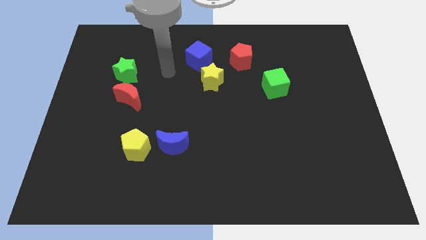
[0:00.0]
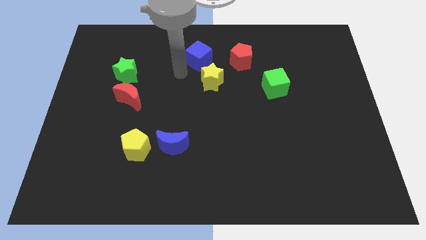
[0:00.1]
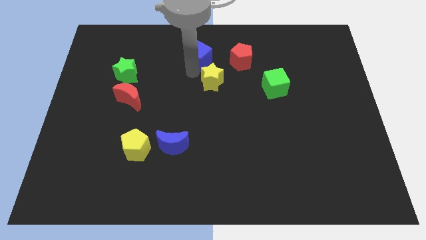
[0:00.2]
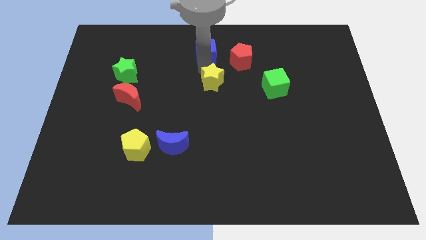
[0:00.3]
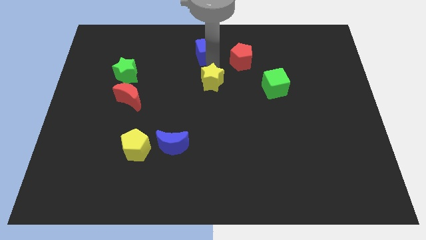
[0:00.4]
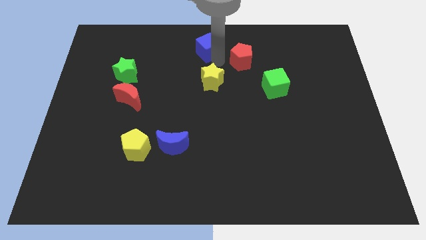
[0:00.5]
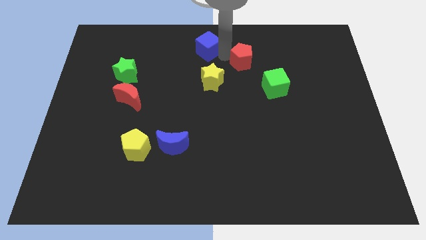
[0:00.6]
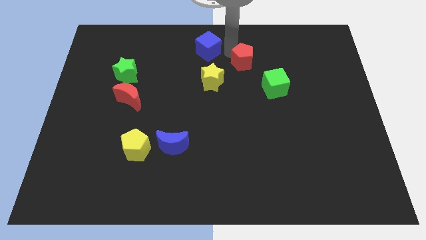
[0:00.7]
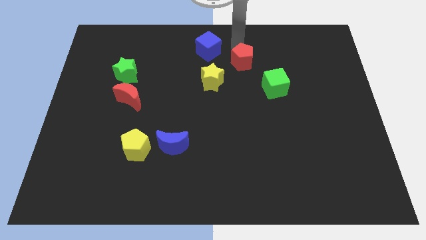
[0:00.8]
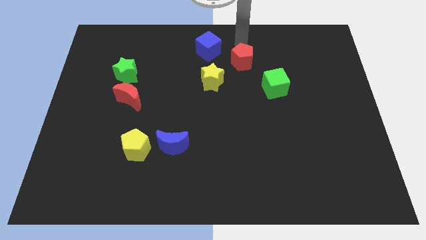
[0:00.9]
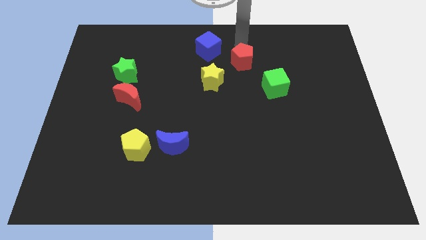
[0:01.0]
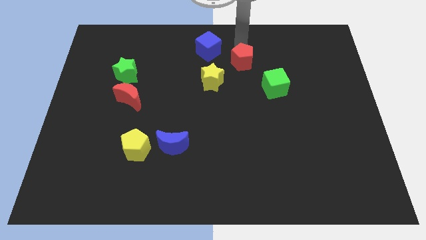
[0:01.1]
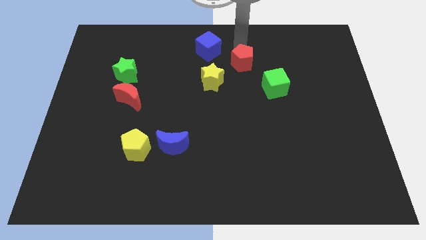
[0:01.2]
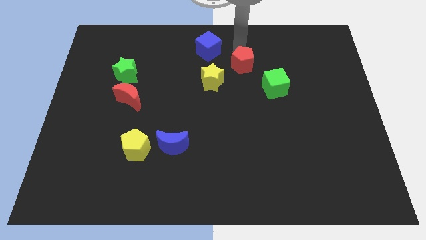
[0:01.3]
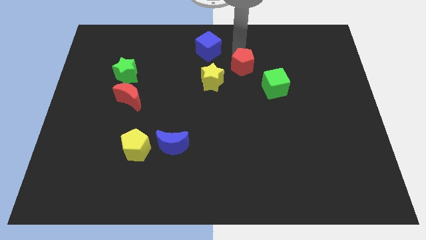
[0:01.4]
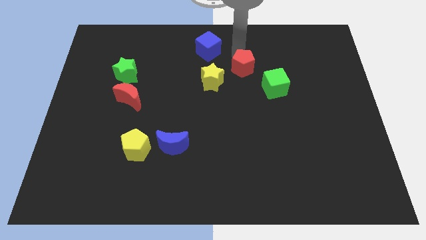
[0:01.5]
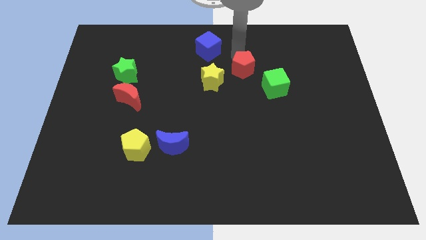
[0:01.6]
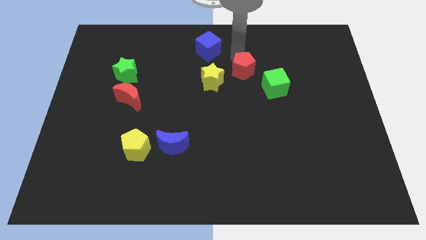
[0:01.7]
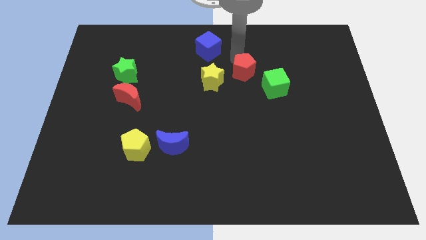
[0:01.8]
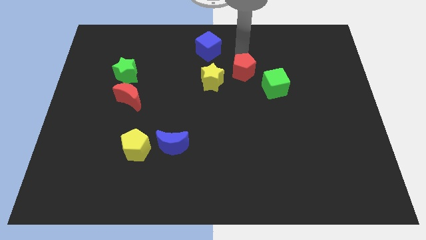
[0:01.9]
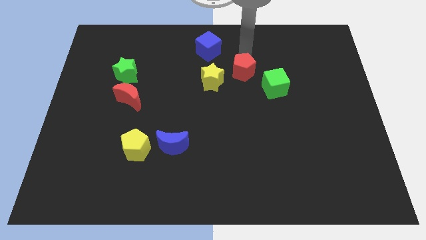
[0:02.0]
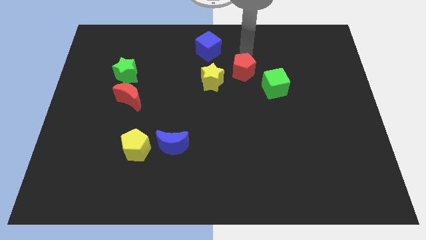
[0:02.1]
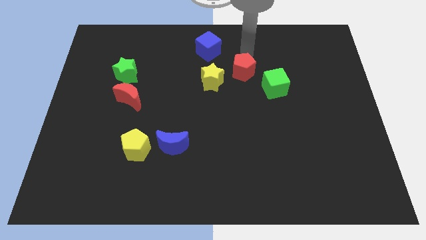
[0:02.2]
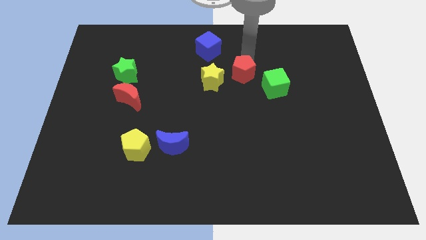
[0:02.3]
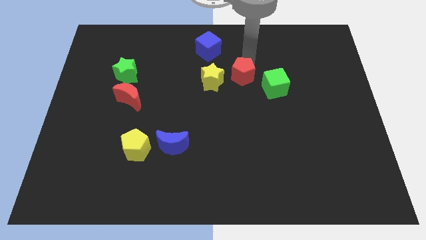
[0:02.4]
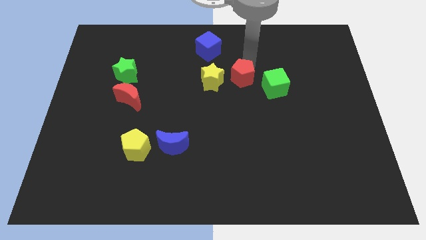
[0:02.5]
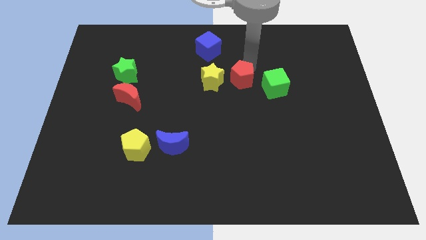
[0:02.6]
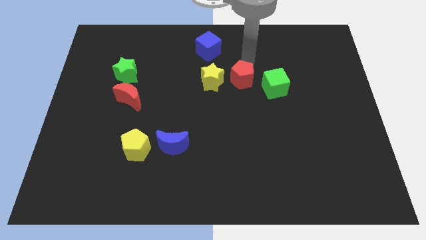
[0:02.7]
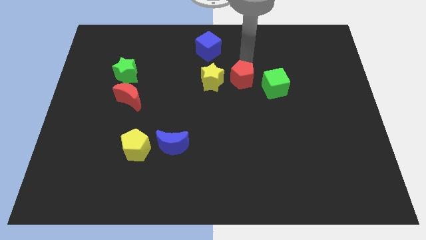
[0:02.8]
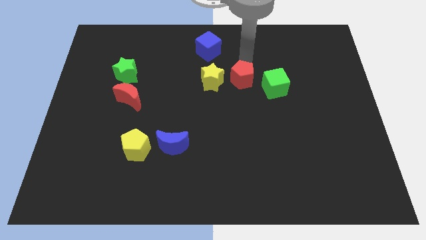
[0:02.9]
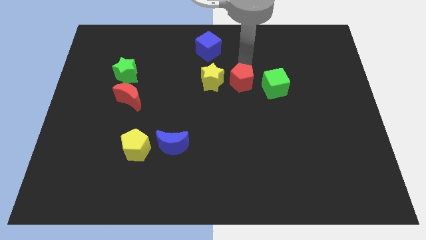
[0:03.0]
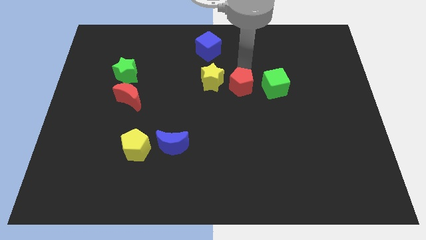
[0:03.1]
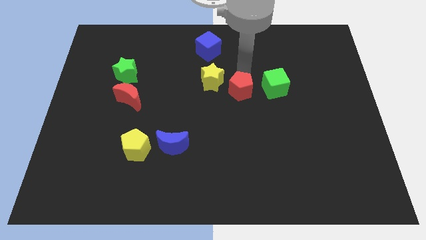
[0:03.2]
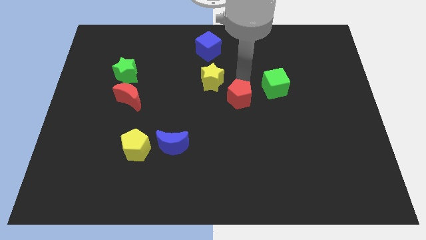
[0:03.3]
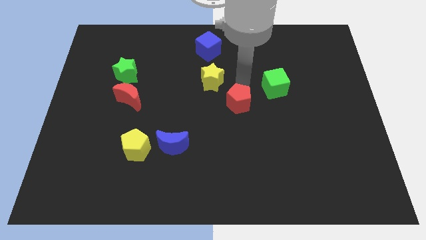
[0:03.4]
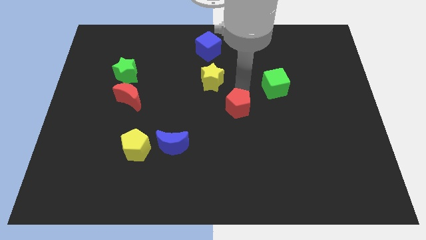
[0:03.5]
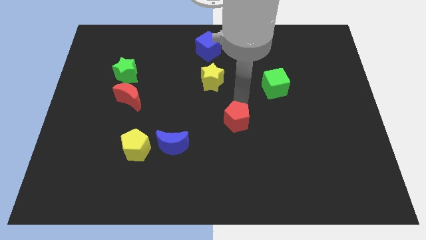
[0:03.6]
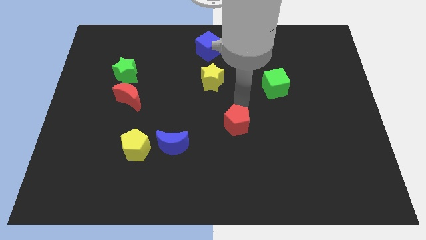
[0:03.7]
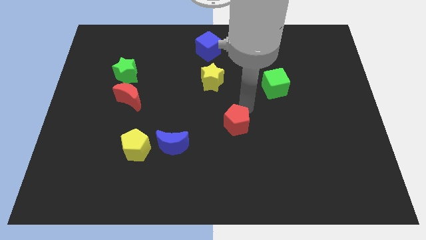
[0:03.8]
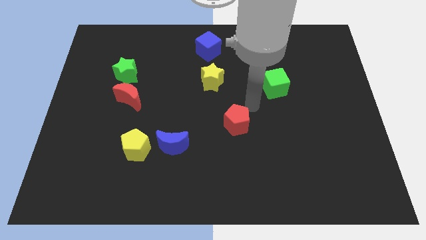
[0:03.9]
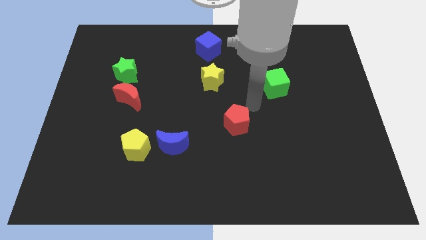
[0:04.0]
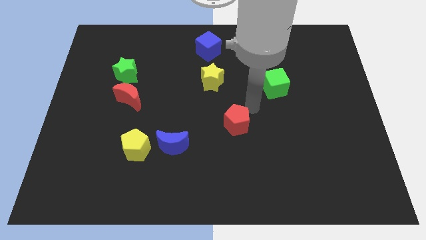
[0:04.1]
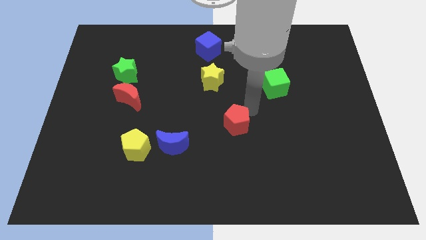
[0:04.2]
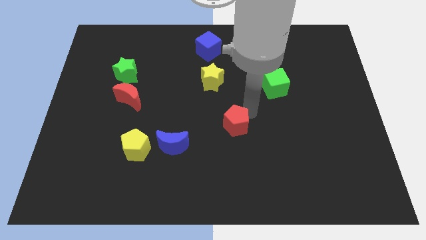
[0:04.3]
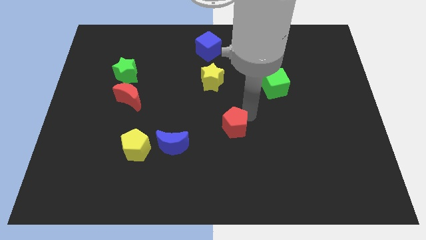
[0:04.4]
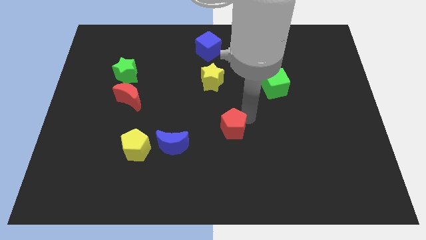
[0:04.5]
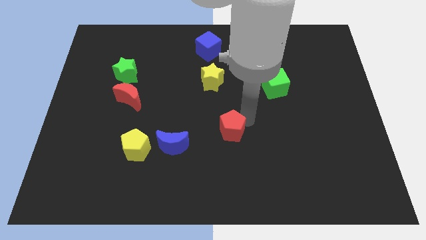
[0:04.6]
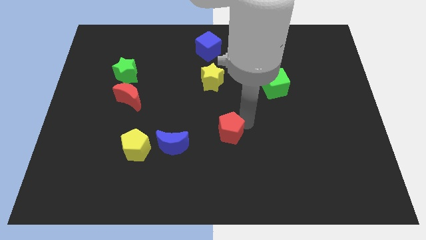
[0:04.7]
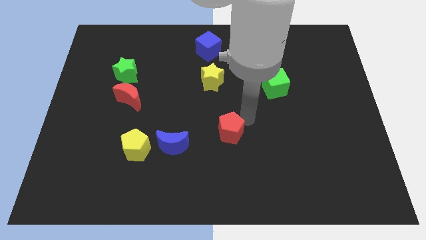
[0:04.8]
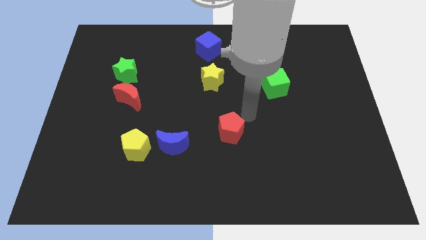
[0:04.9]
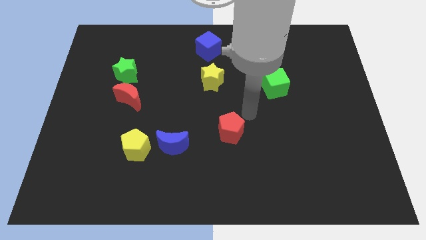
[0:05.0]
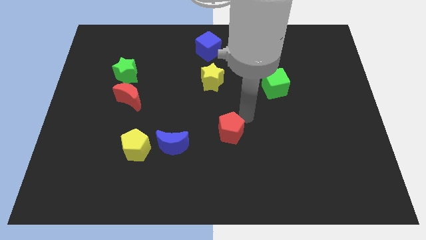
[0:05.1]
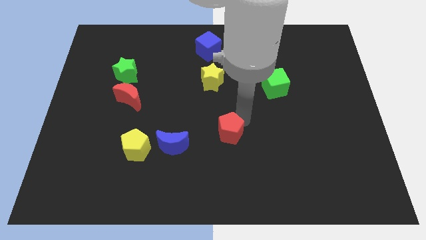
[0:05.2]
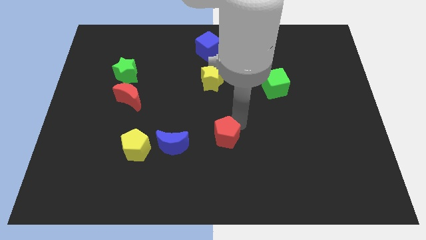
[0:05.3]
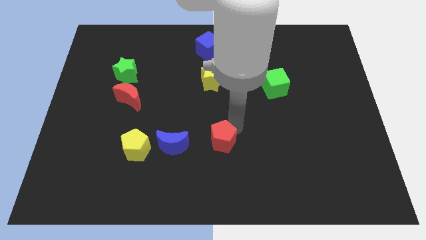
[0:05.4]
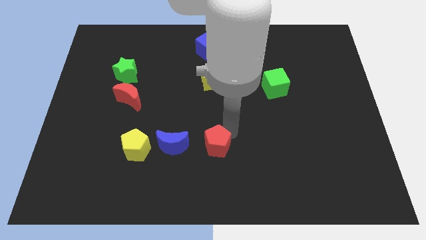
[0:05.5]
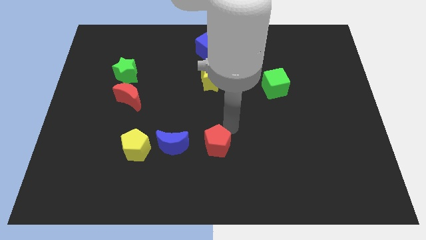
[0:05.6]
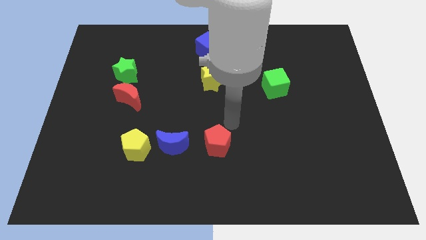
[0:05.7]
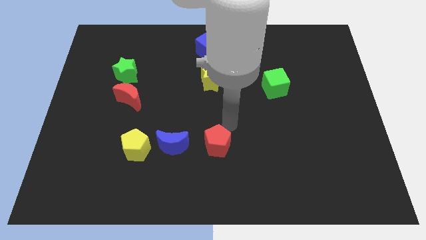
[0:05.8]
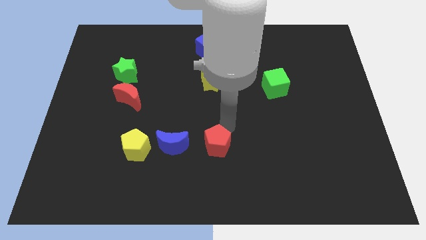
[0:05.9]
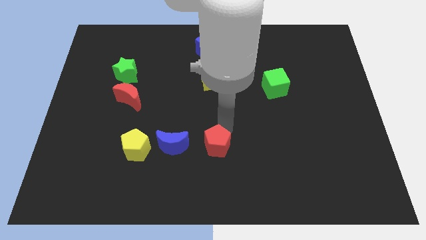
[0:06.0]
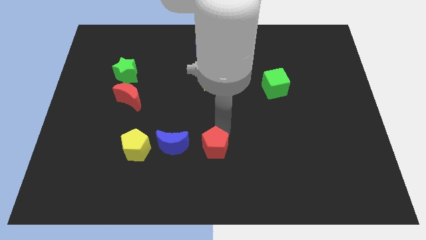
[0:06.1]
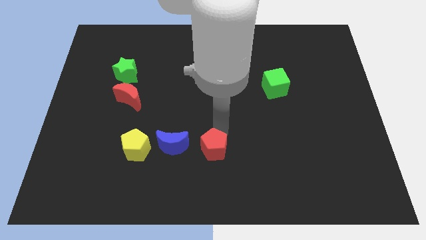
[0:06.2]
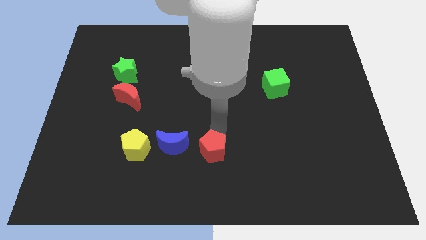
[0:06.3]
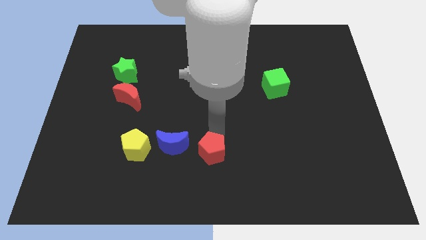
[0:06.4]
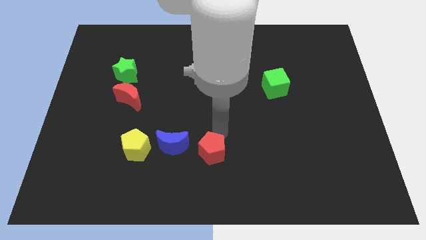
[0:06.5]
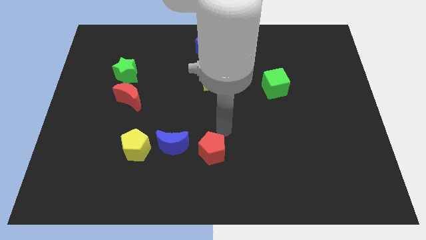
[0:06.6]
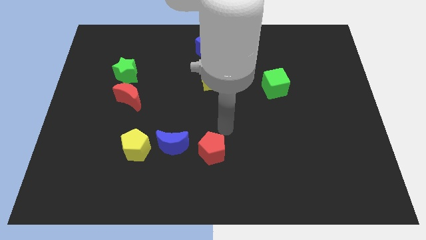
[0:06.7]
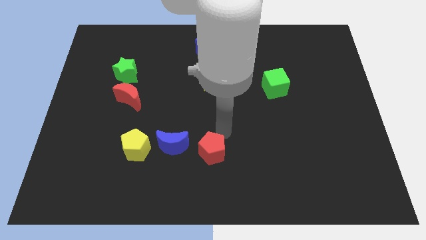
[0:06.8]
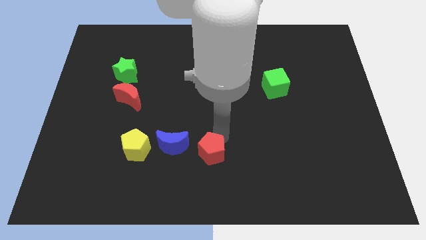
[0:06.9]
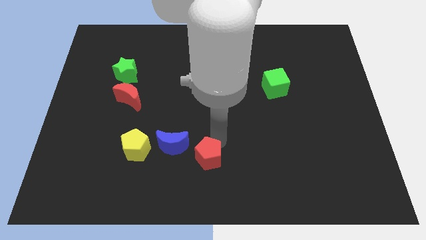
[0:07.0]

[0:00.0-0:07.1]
put the red pentagon to the bottom side
